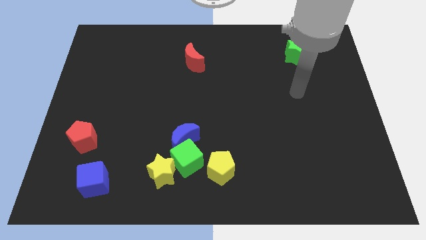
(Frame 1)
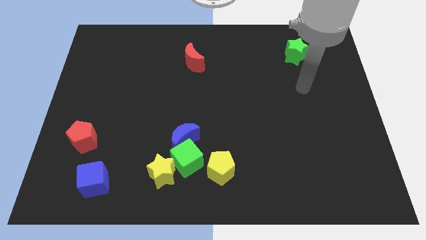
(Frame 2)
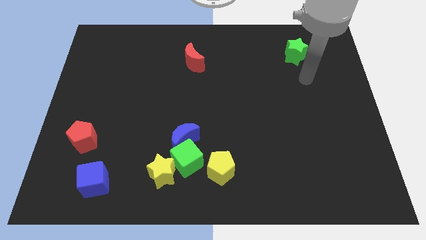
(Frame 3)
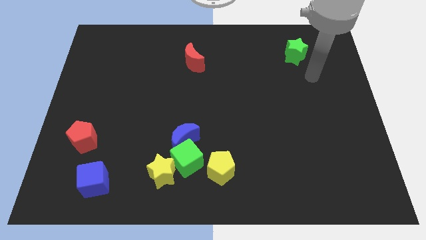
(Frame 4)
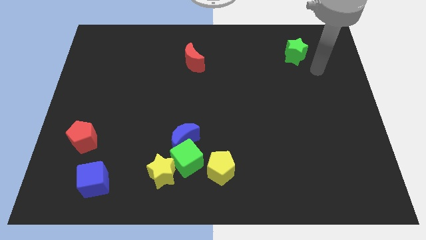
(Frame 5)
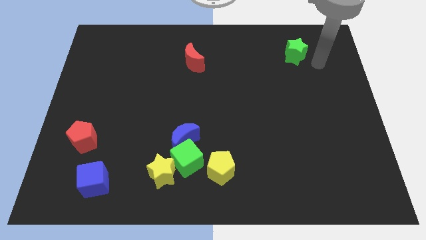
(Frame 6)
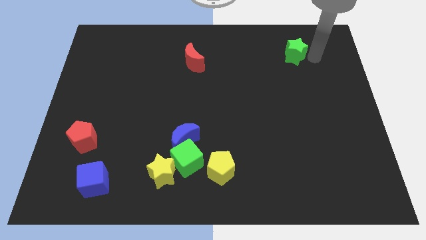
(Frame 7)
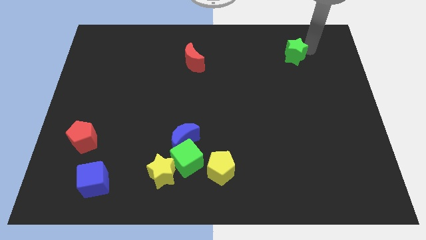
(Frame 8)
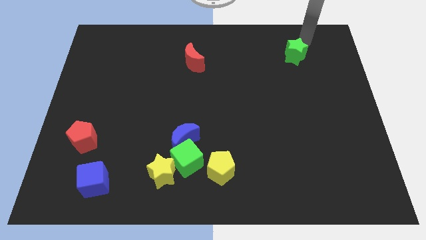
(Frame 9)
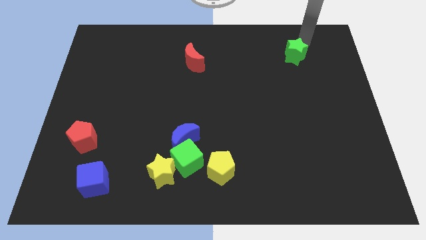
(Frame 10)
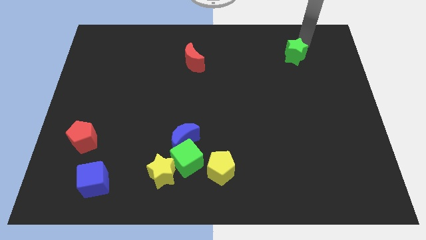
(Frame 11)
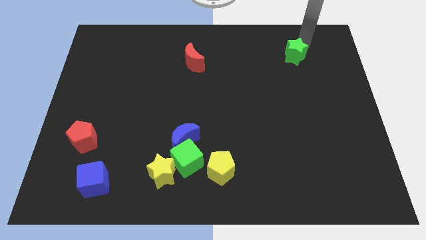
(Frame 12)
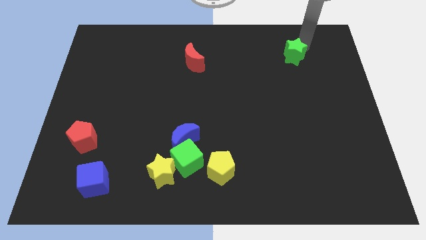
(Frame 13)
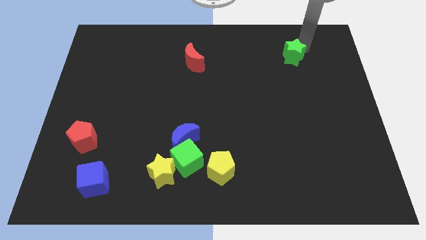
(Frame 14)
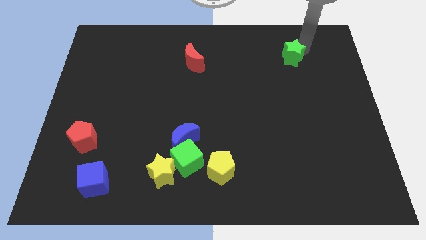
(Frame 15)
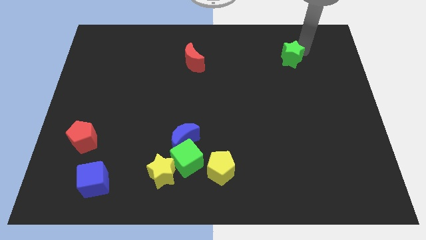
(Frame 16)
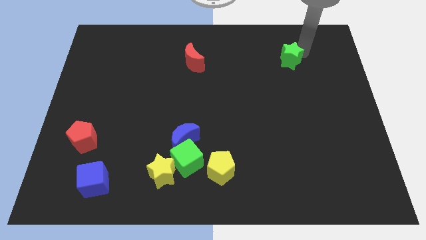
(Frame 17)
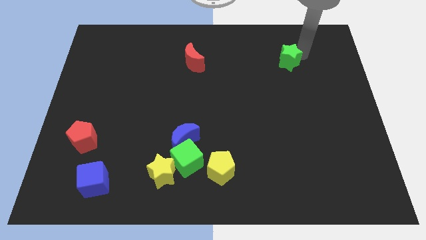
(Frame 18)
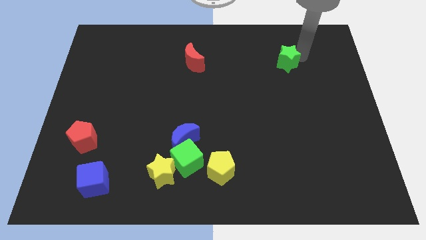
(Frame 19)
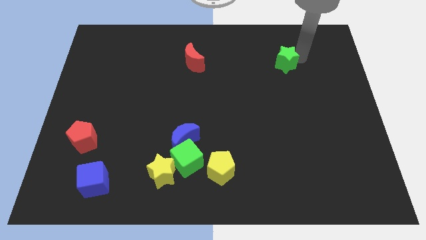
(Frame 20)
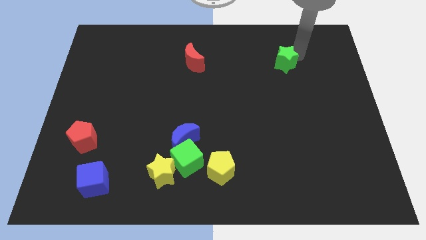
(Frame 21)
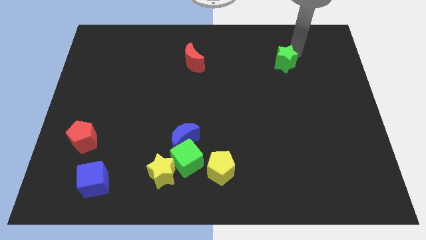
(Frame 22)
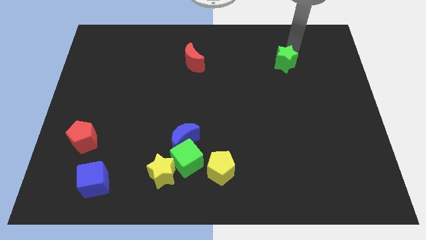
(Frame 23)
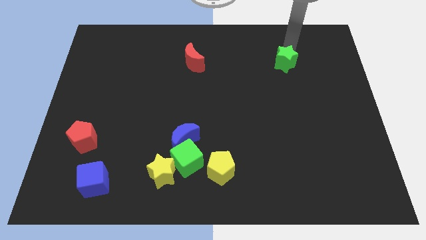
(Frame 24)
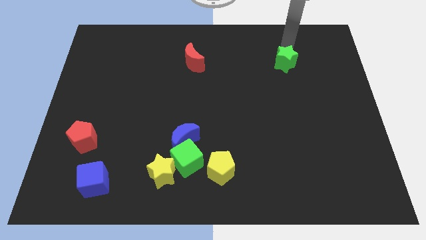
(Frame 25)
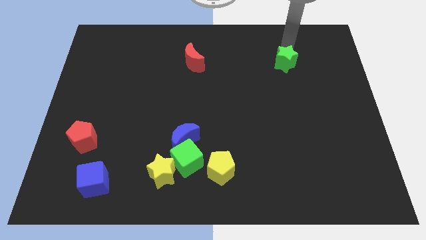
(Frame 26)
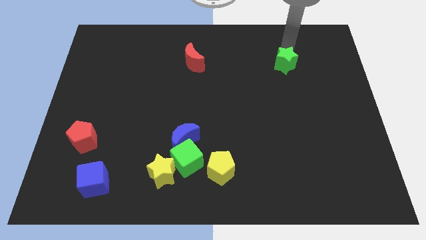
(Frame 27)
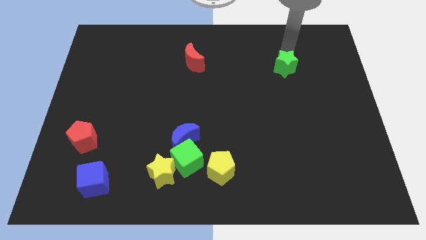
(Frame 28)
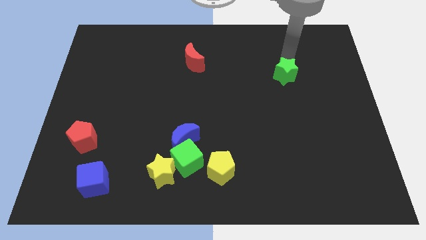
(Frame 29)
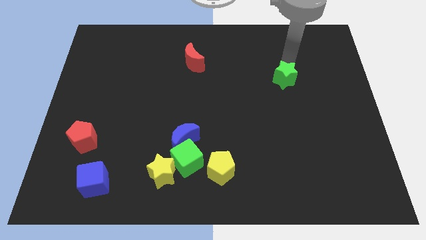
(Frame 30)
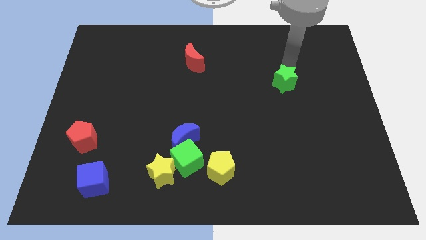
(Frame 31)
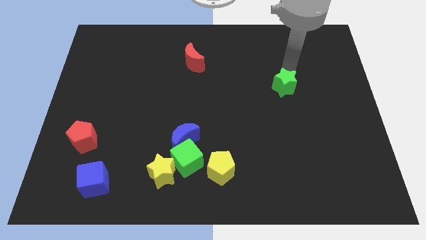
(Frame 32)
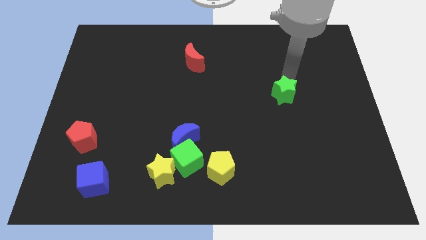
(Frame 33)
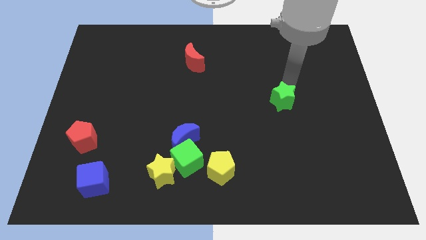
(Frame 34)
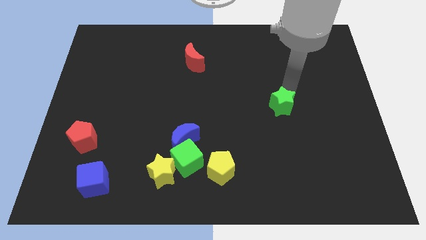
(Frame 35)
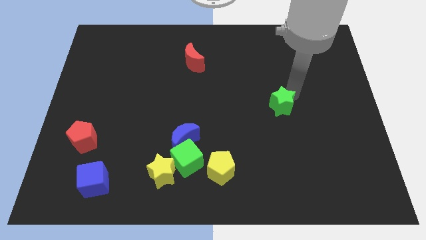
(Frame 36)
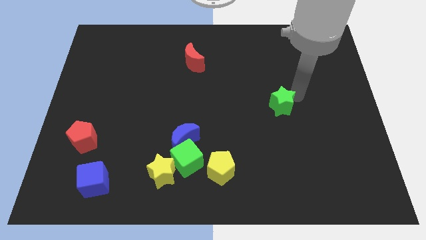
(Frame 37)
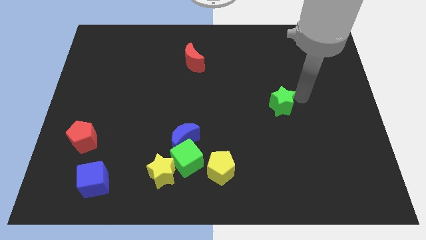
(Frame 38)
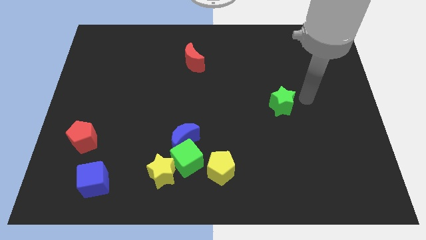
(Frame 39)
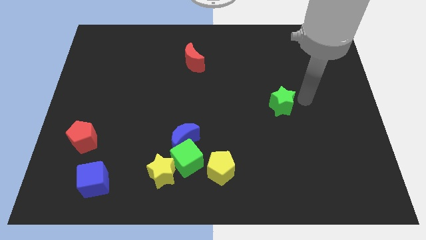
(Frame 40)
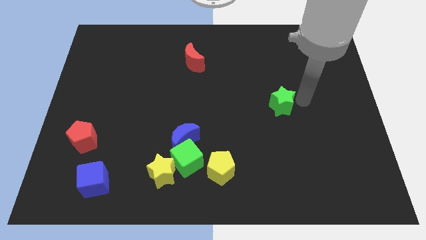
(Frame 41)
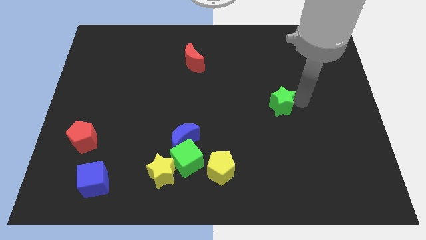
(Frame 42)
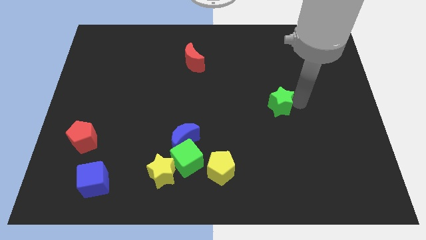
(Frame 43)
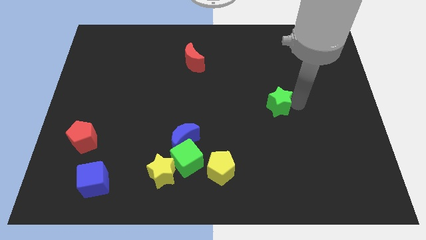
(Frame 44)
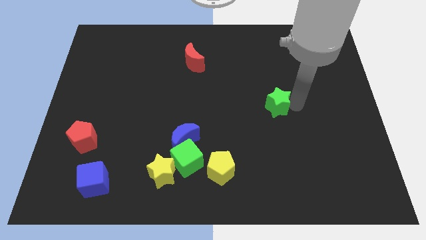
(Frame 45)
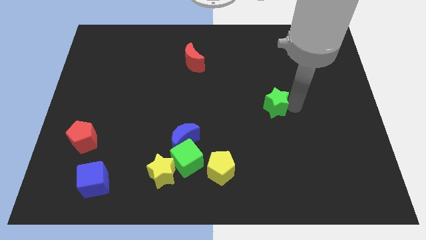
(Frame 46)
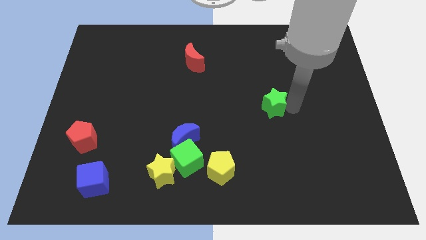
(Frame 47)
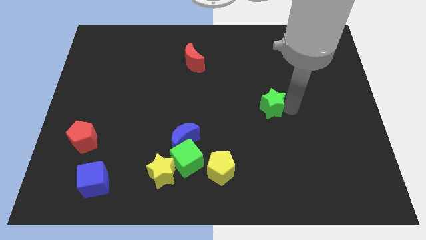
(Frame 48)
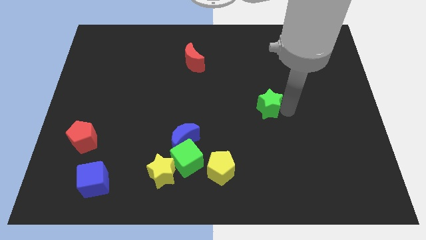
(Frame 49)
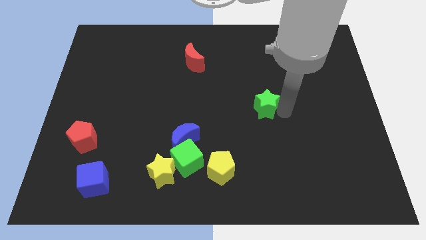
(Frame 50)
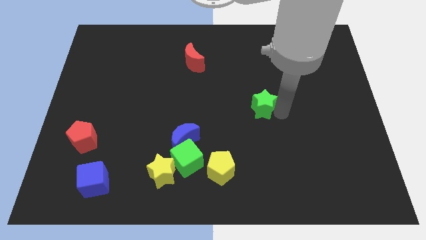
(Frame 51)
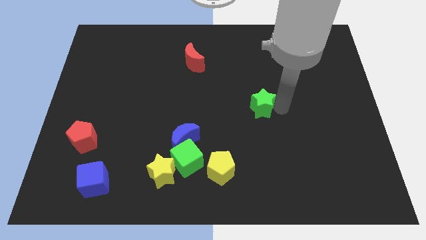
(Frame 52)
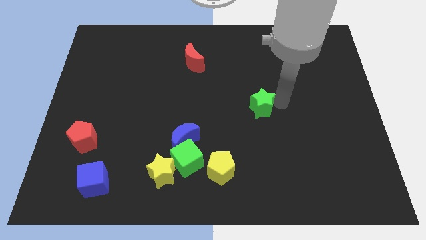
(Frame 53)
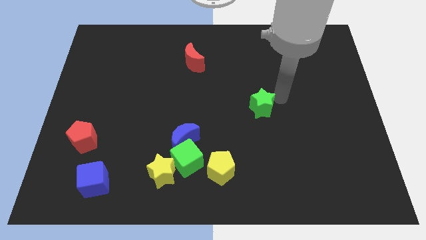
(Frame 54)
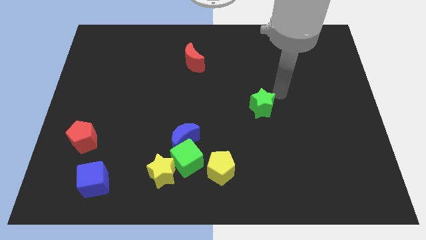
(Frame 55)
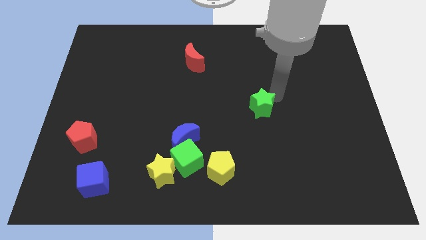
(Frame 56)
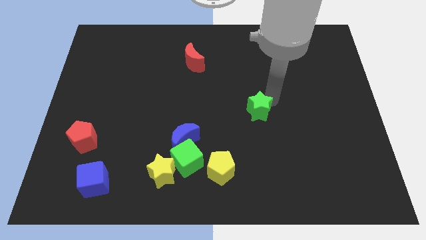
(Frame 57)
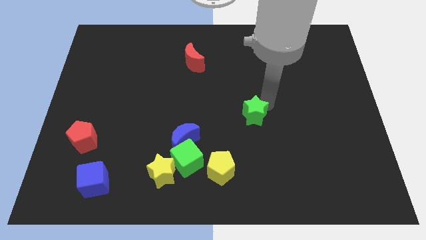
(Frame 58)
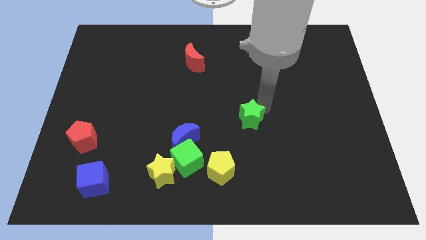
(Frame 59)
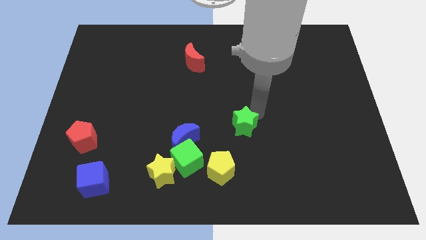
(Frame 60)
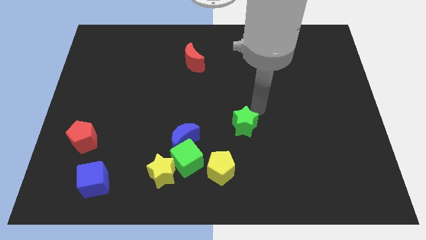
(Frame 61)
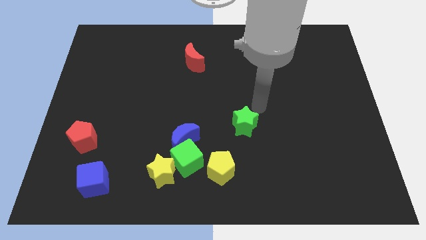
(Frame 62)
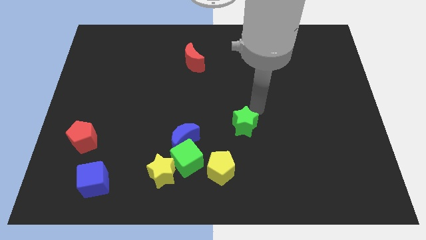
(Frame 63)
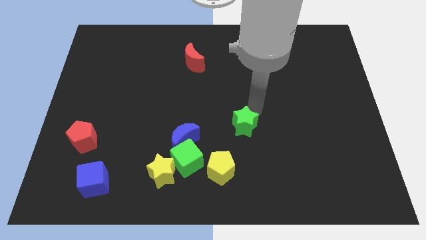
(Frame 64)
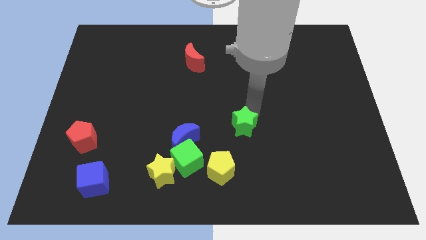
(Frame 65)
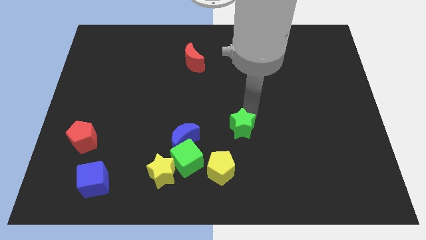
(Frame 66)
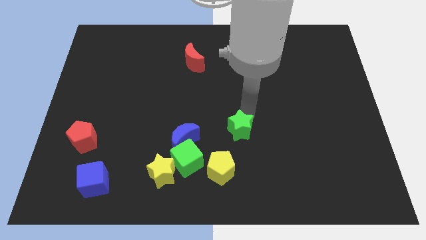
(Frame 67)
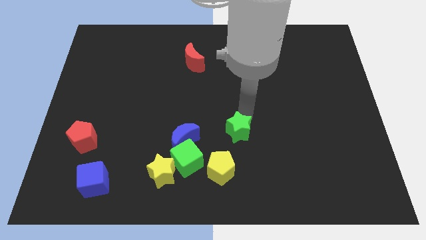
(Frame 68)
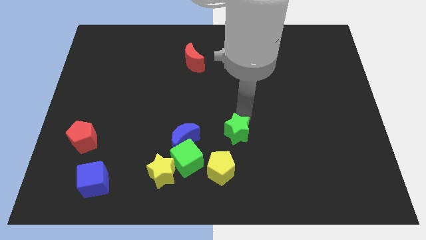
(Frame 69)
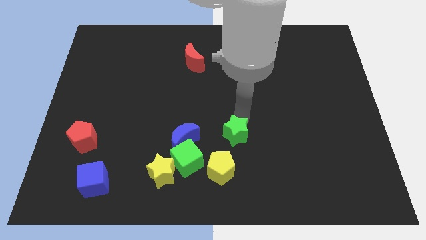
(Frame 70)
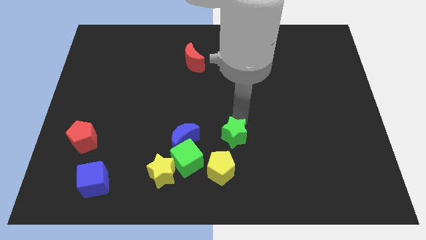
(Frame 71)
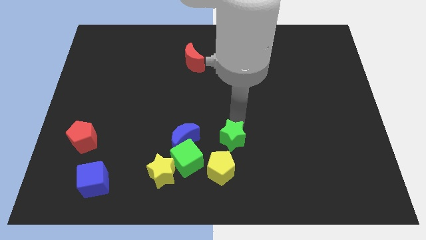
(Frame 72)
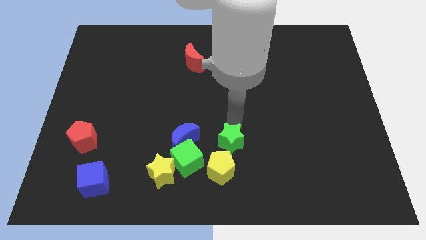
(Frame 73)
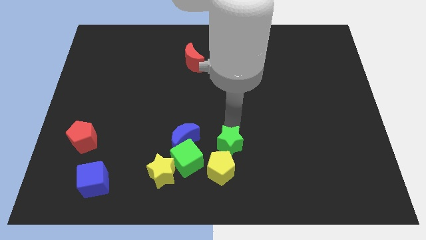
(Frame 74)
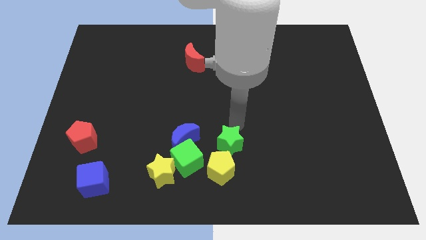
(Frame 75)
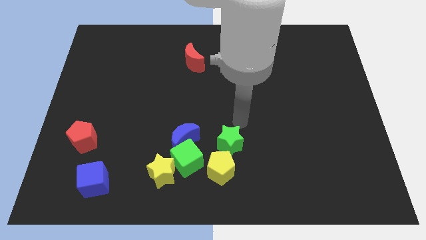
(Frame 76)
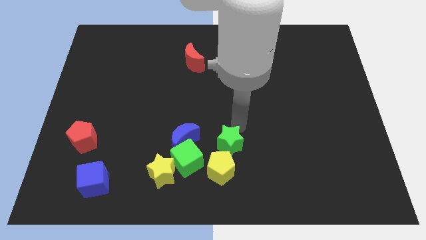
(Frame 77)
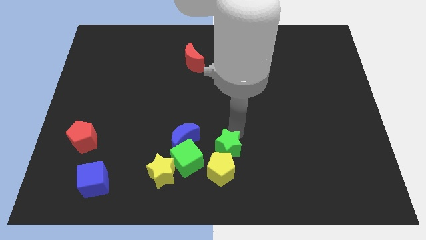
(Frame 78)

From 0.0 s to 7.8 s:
move the green star close to the yellow pentagon
